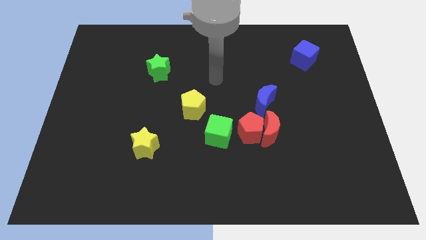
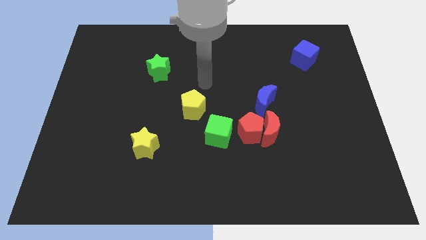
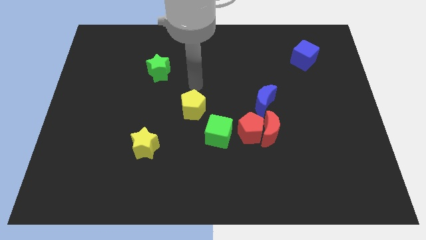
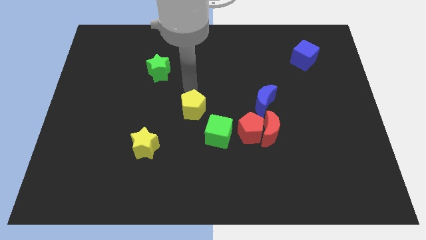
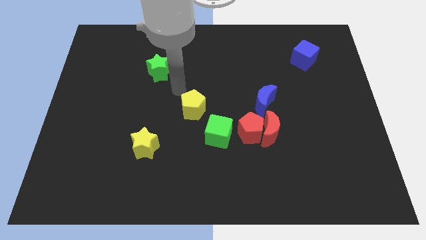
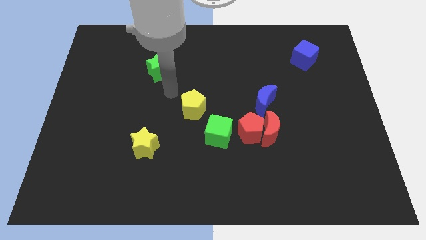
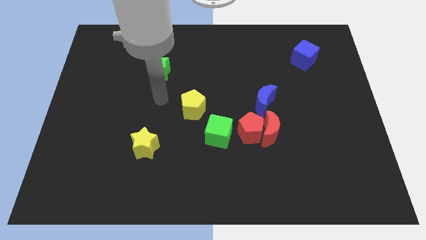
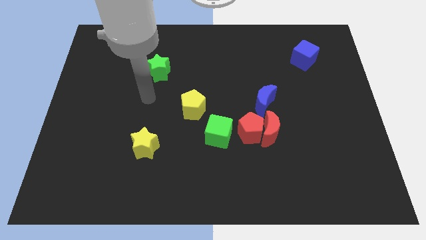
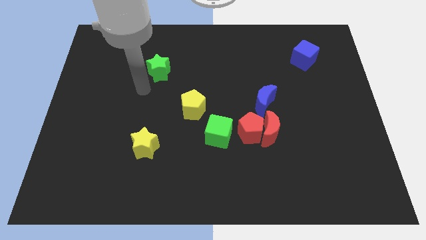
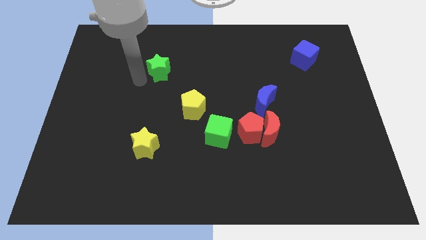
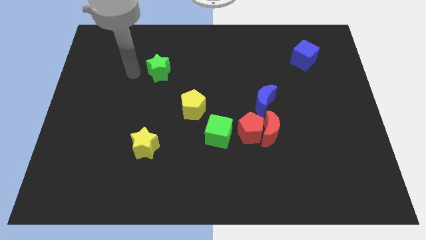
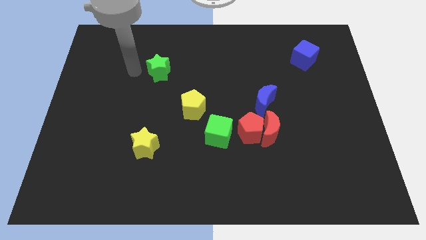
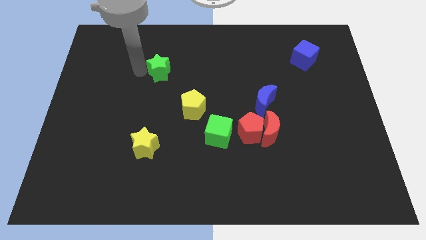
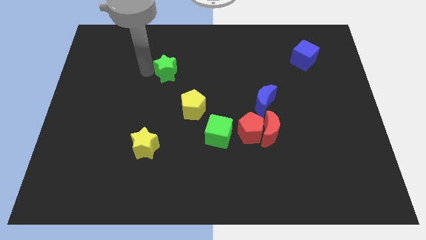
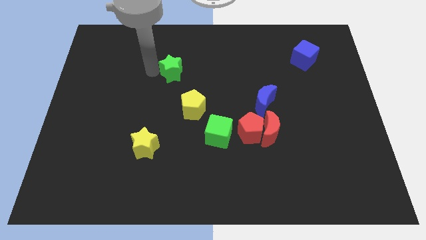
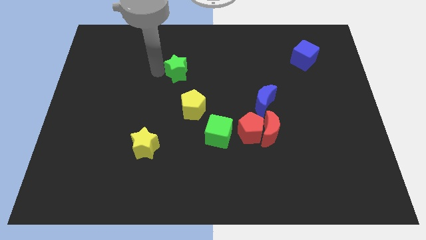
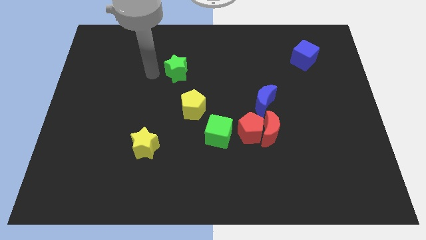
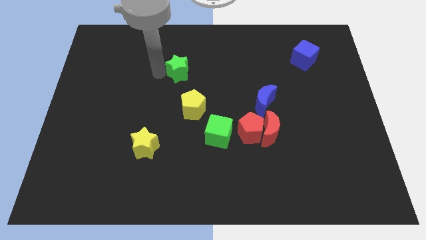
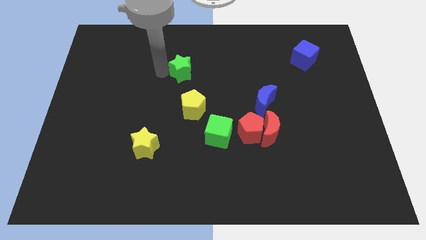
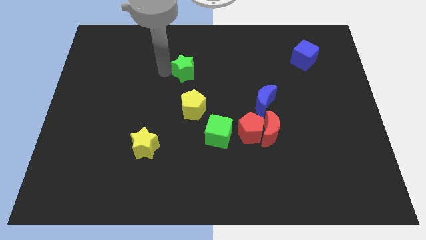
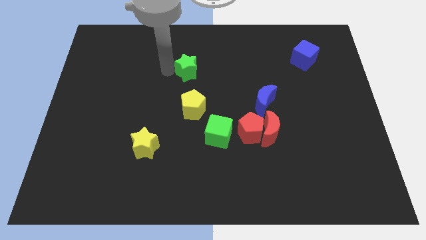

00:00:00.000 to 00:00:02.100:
move the green star a little bit to the right

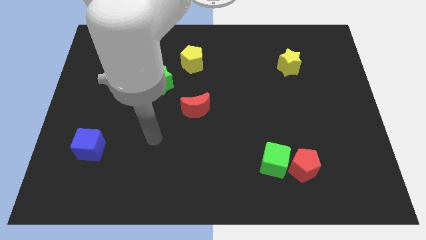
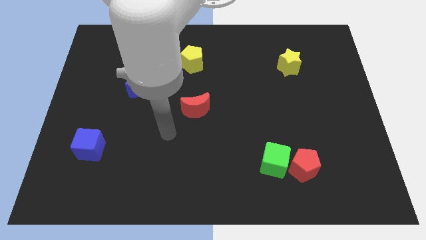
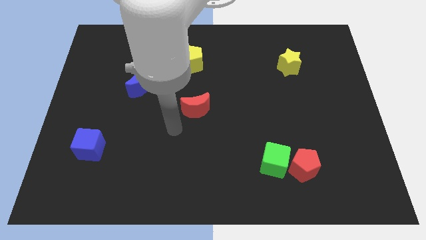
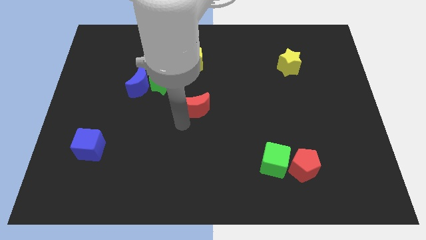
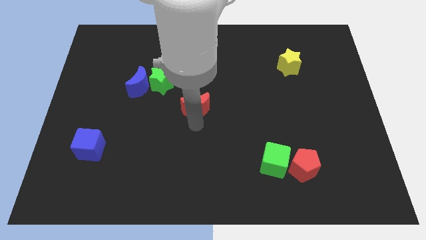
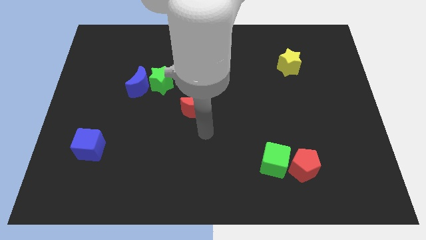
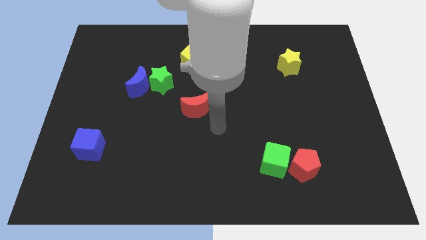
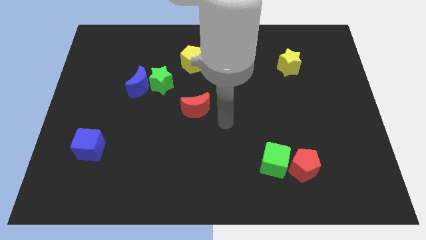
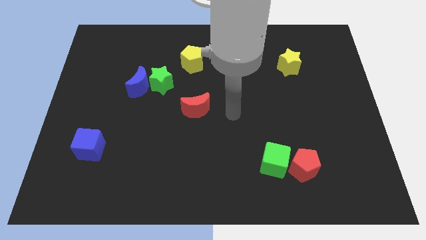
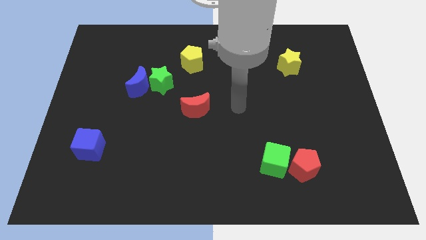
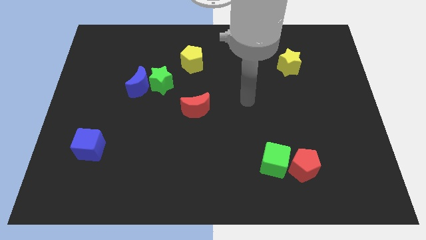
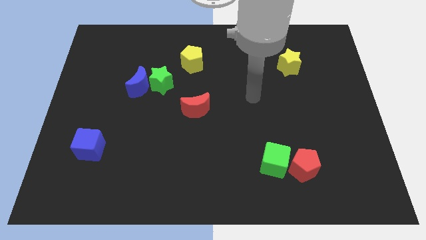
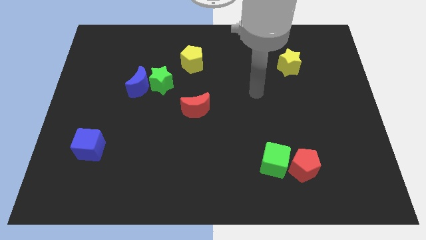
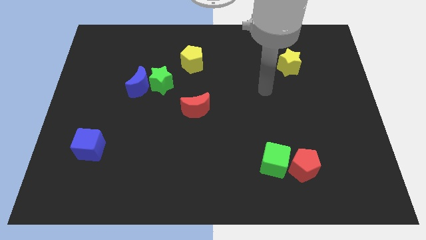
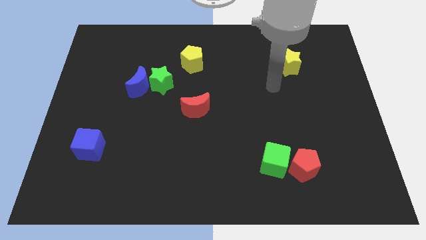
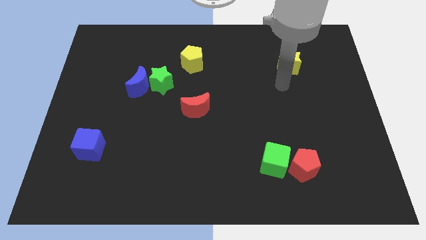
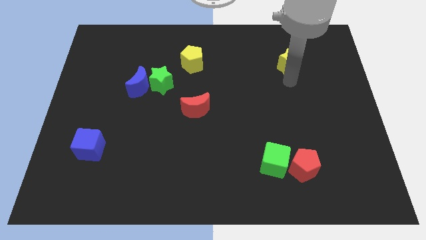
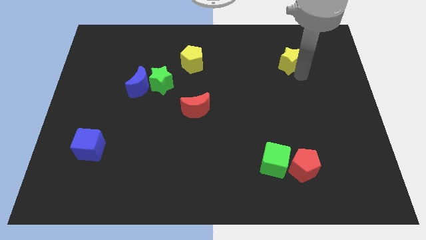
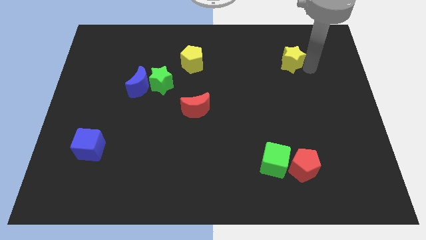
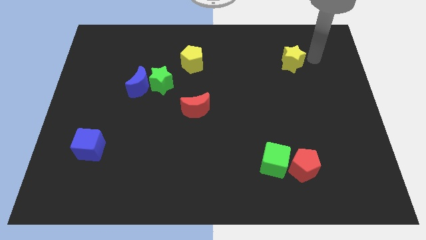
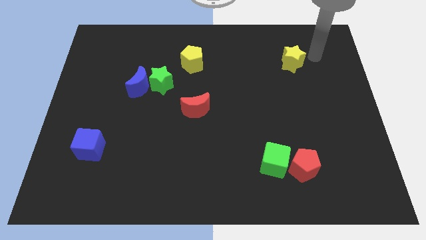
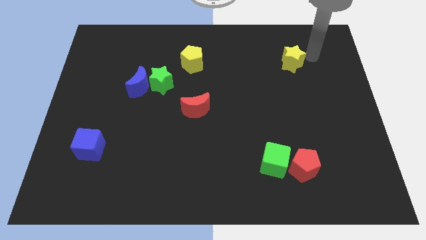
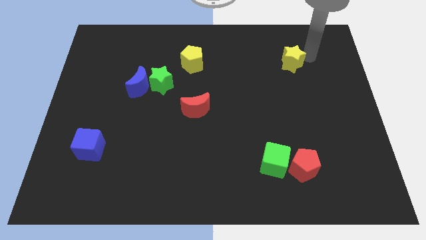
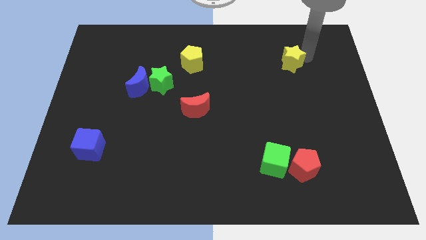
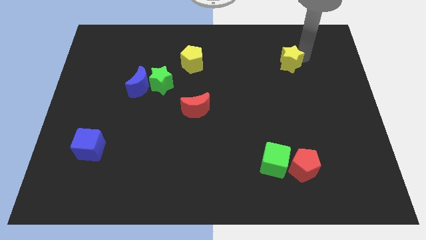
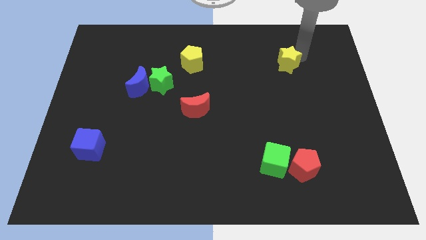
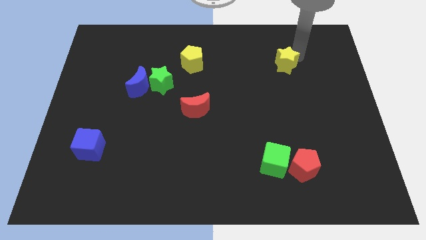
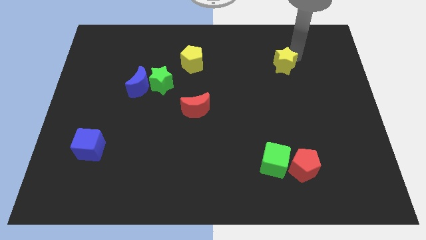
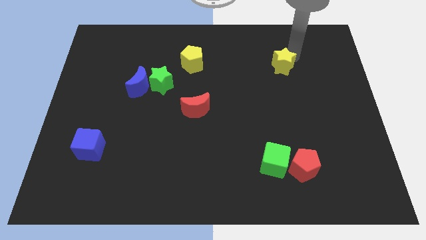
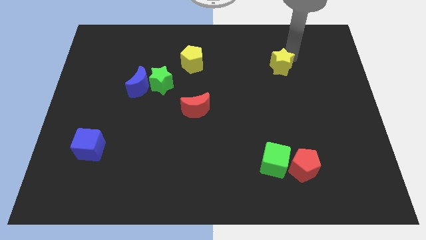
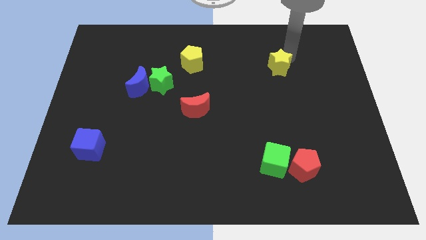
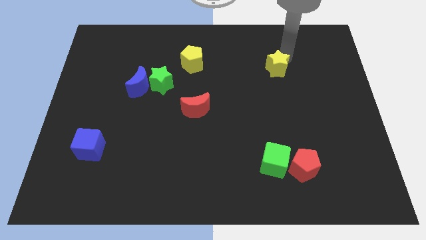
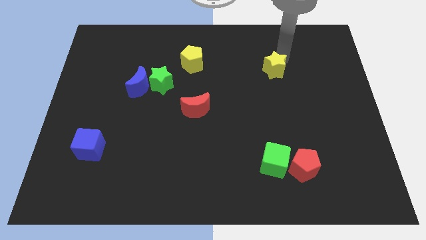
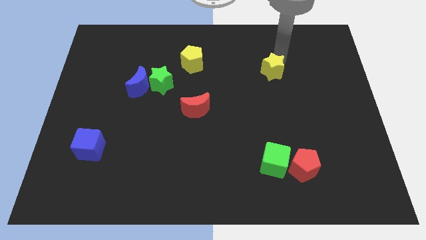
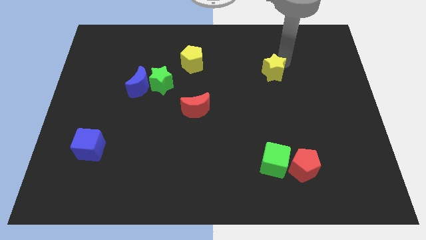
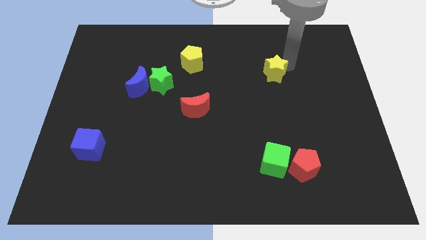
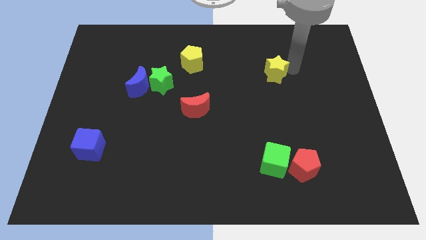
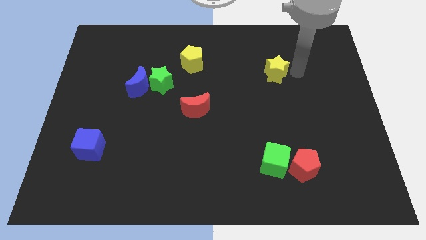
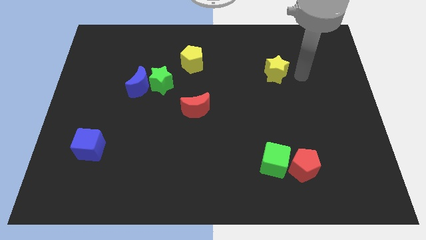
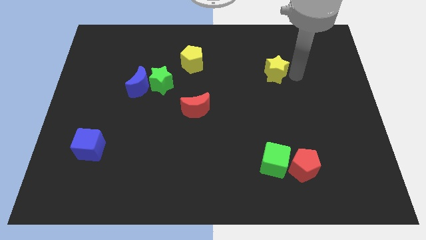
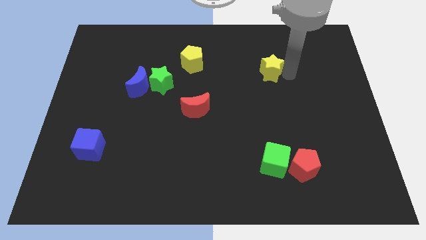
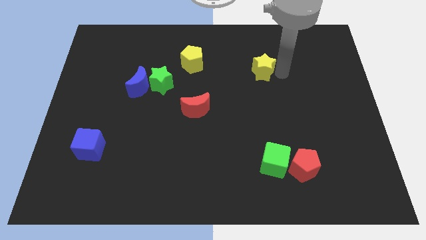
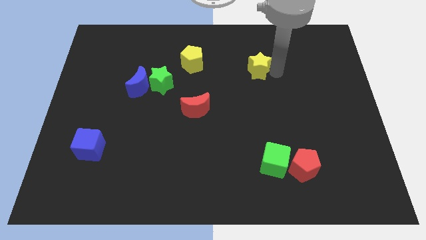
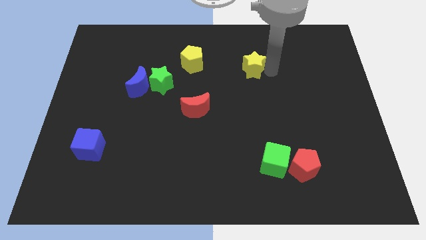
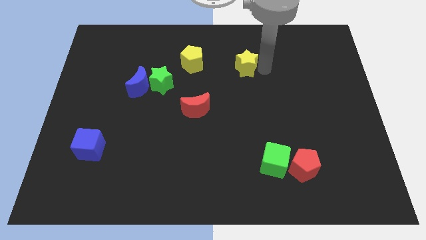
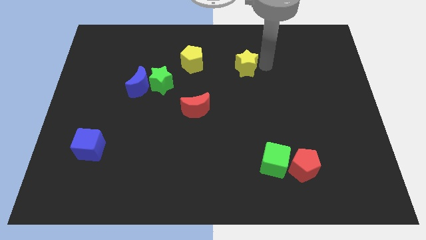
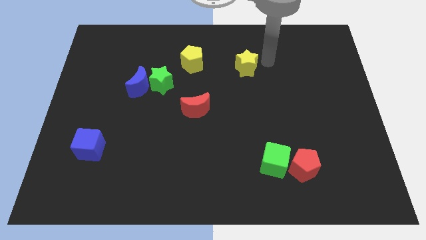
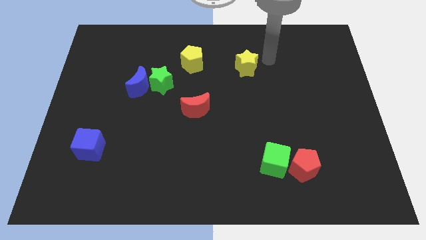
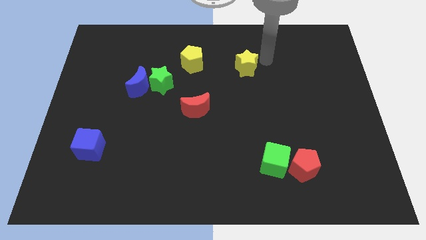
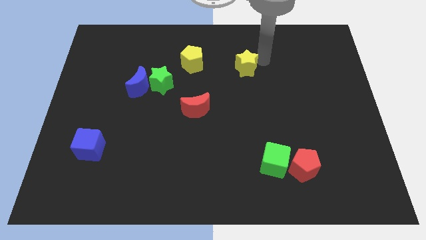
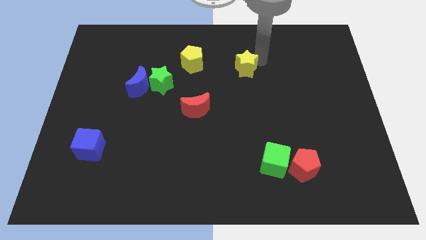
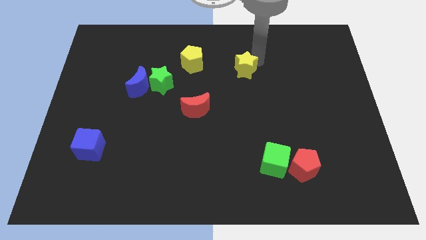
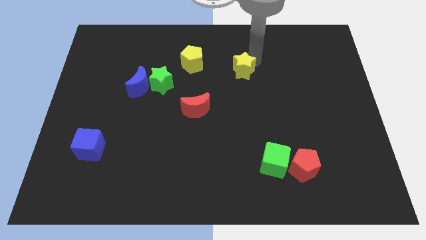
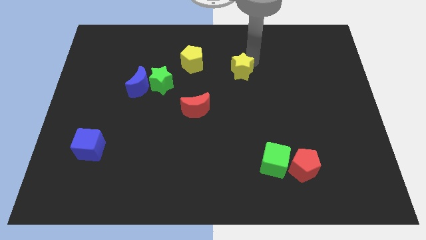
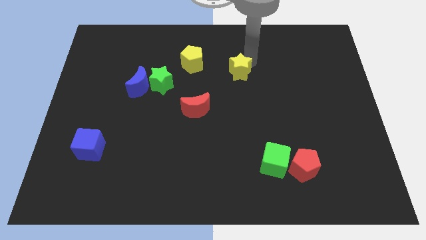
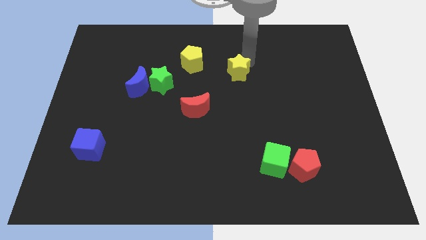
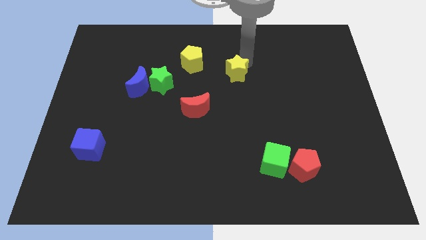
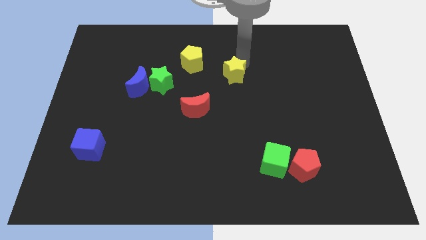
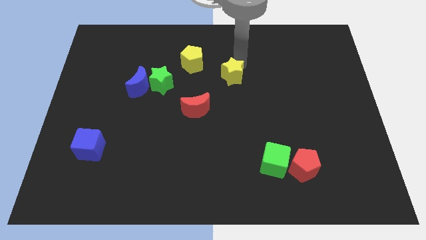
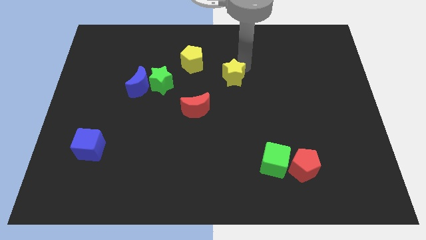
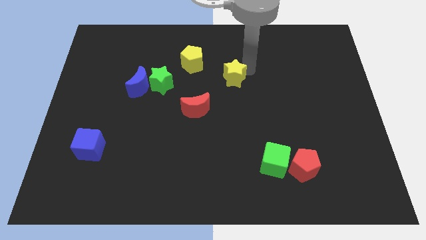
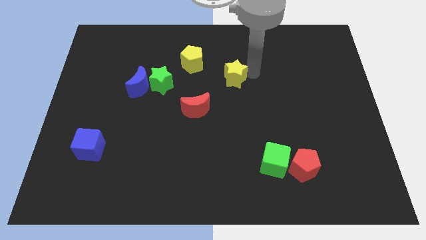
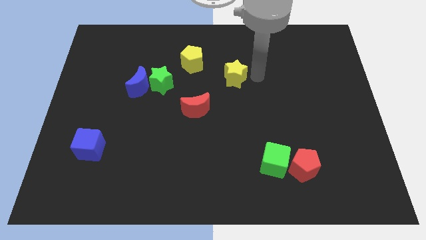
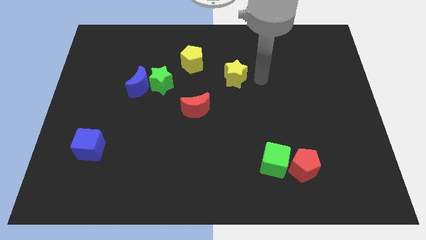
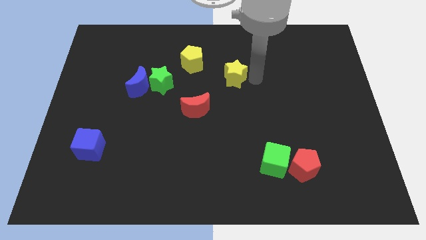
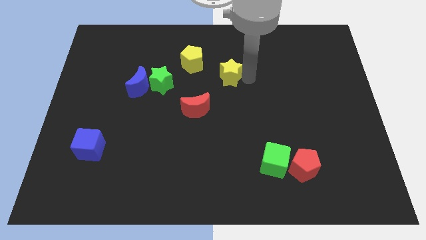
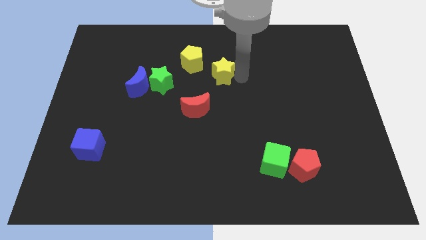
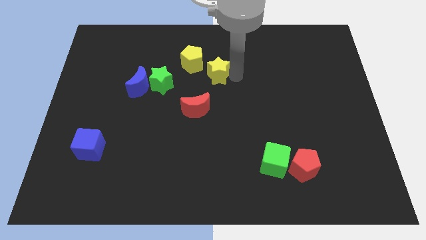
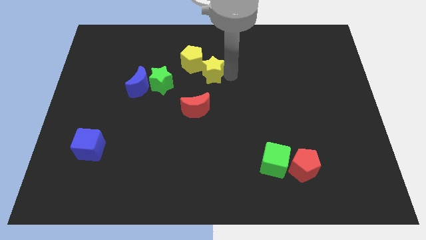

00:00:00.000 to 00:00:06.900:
push the yellow star left
